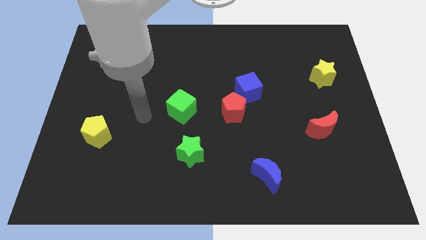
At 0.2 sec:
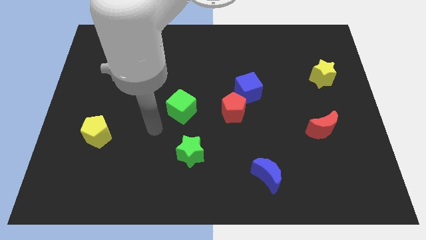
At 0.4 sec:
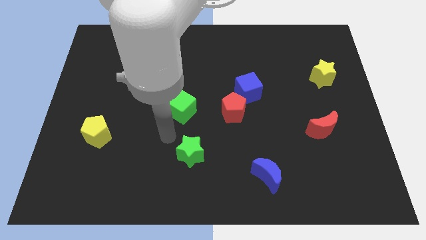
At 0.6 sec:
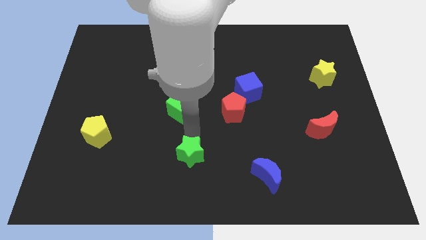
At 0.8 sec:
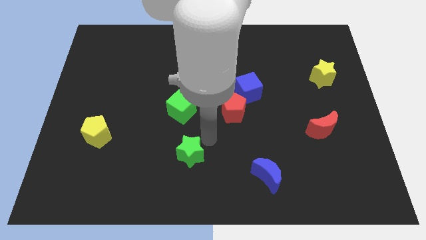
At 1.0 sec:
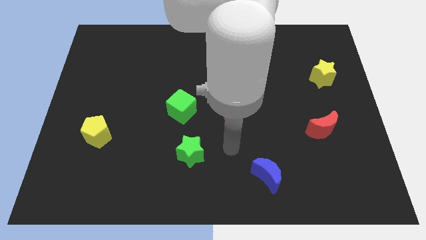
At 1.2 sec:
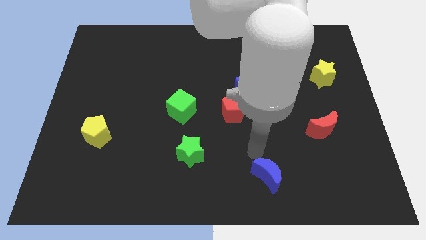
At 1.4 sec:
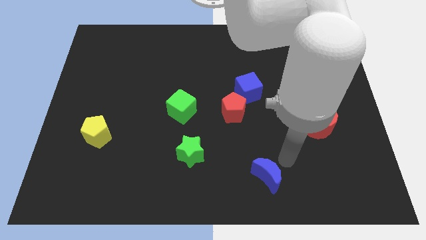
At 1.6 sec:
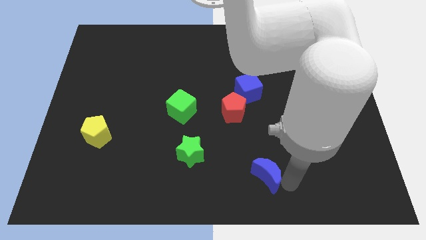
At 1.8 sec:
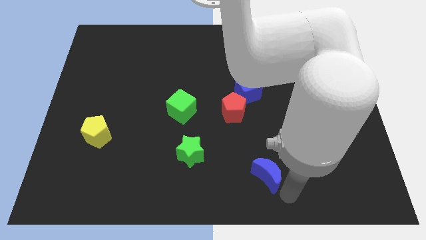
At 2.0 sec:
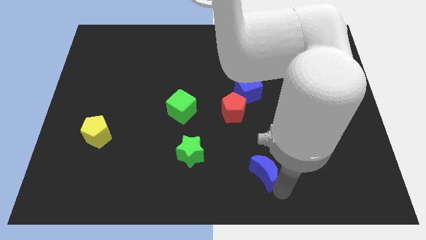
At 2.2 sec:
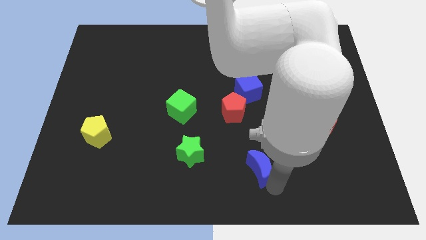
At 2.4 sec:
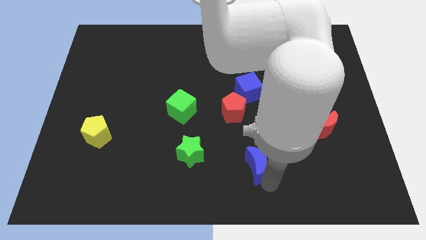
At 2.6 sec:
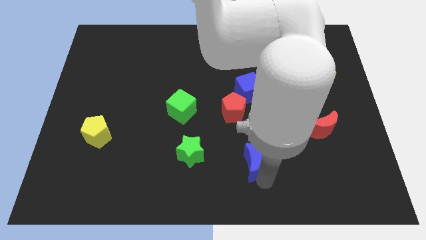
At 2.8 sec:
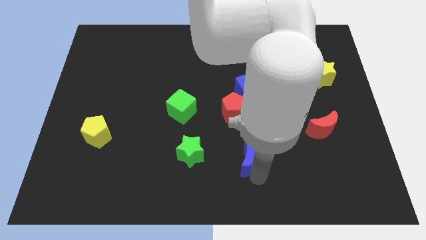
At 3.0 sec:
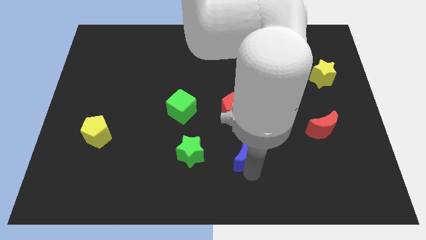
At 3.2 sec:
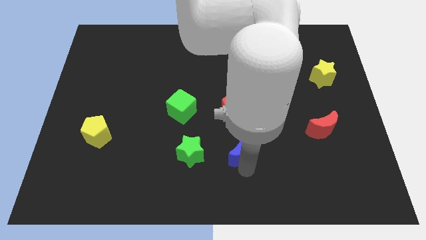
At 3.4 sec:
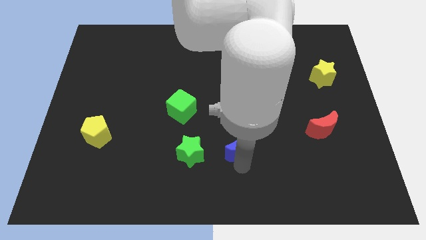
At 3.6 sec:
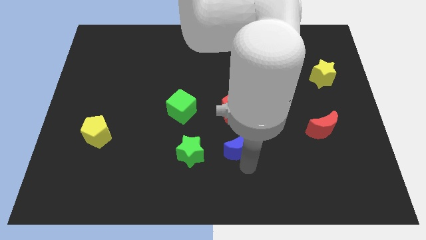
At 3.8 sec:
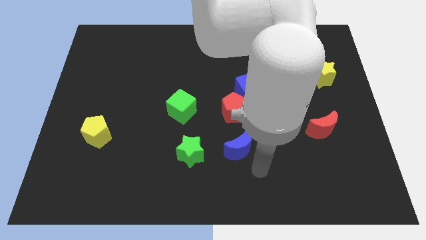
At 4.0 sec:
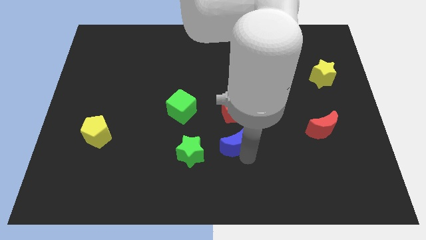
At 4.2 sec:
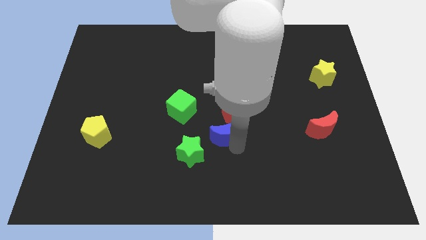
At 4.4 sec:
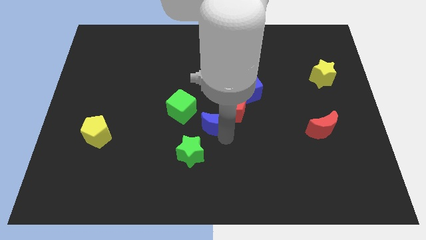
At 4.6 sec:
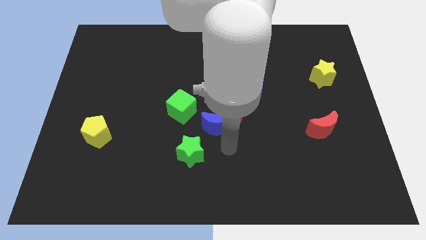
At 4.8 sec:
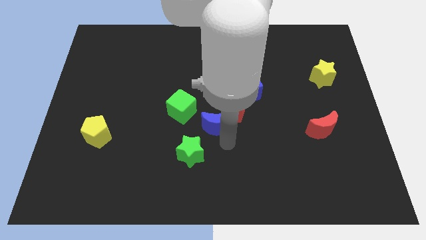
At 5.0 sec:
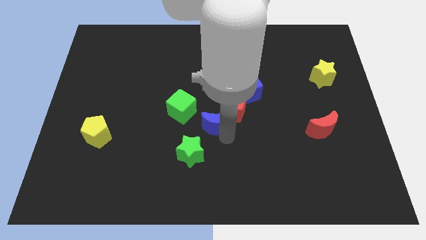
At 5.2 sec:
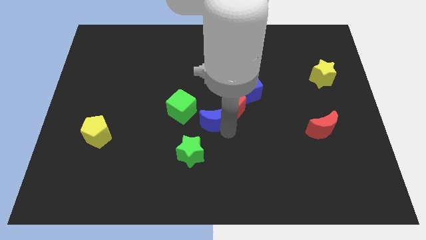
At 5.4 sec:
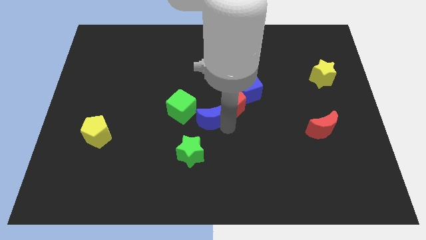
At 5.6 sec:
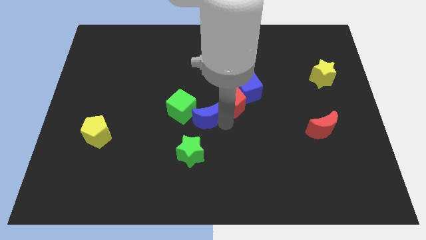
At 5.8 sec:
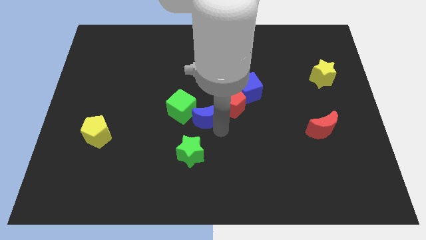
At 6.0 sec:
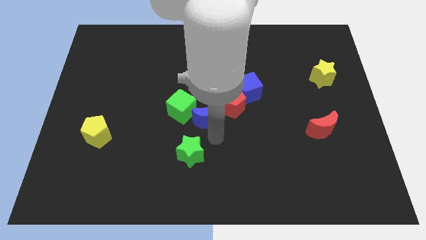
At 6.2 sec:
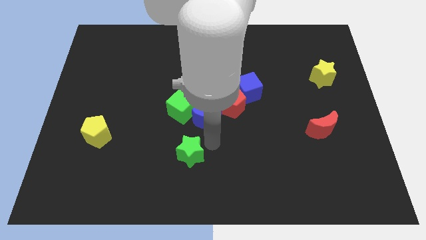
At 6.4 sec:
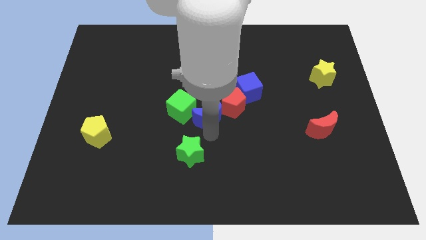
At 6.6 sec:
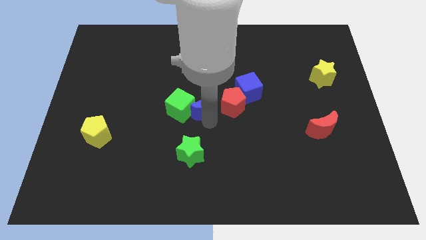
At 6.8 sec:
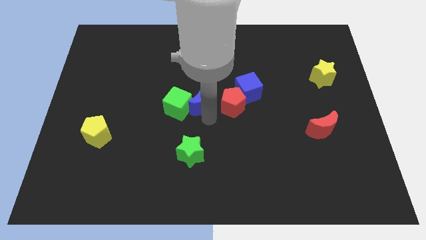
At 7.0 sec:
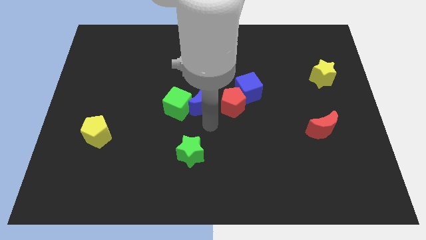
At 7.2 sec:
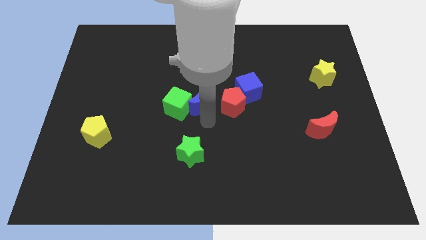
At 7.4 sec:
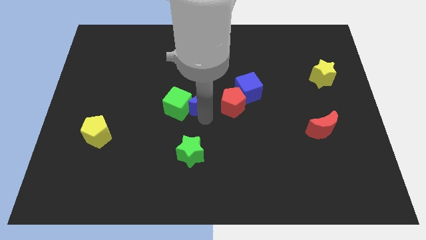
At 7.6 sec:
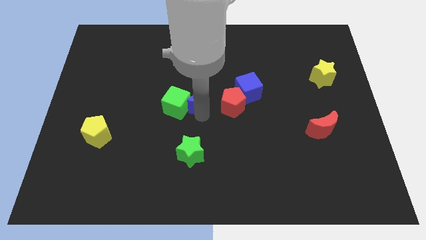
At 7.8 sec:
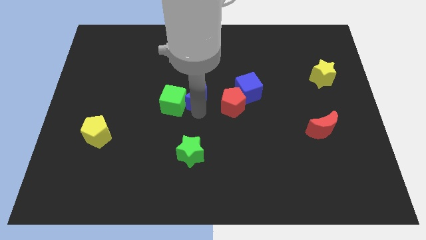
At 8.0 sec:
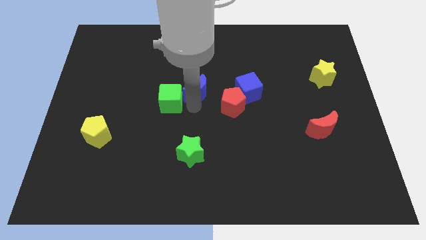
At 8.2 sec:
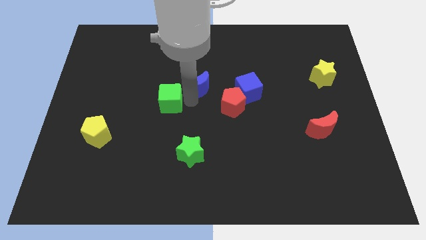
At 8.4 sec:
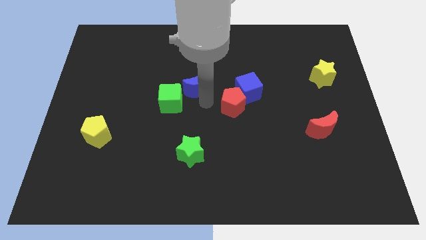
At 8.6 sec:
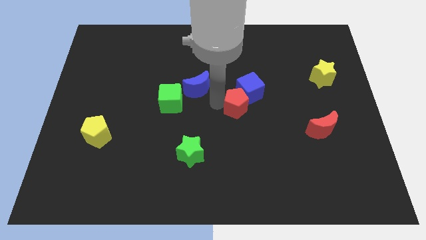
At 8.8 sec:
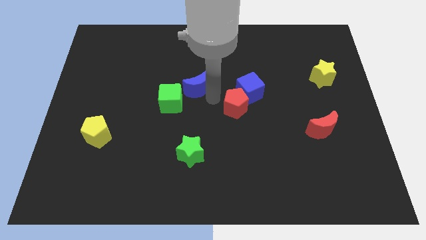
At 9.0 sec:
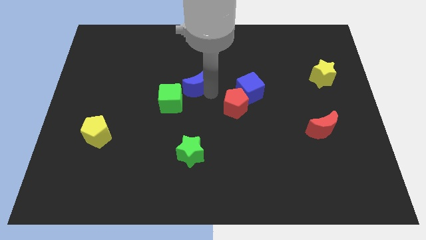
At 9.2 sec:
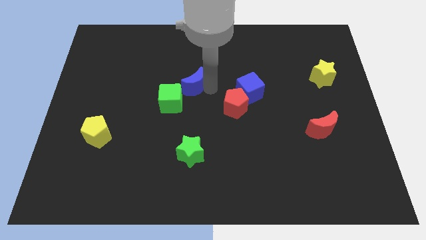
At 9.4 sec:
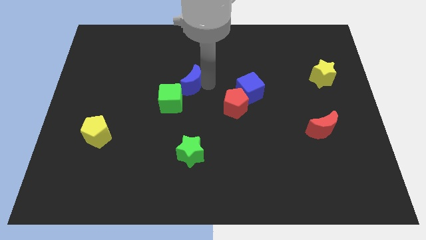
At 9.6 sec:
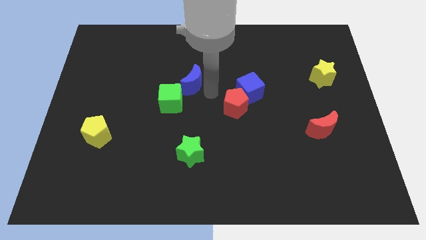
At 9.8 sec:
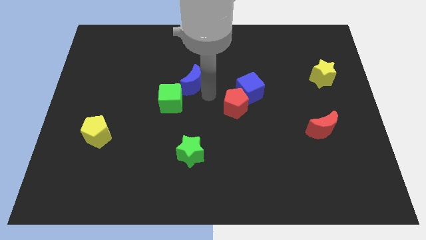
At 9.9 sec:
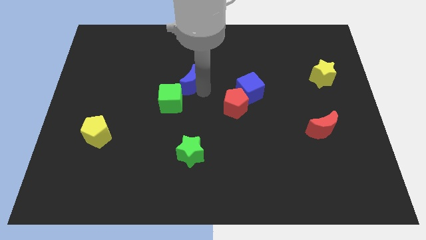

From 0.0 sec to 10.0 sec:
put the blue moon to the top of the green cube
